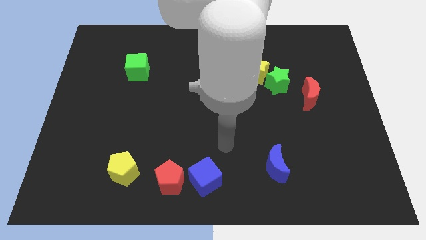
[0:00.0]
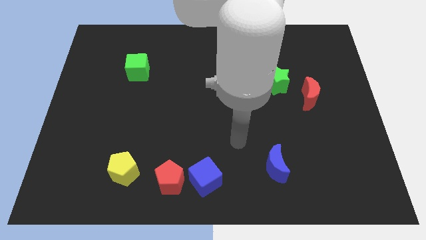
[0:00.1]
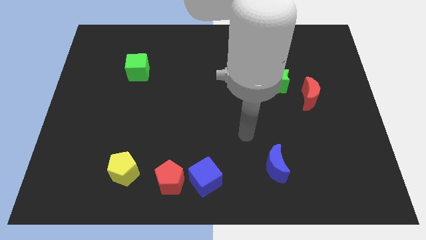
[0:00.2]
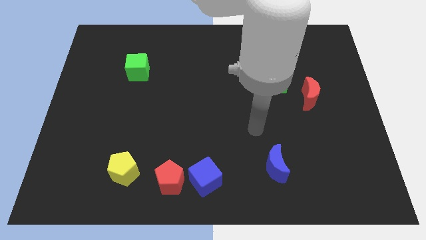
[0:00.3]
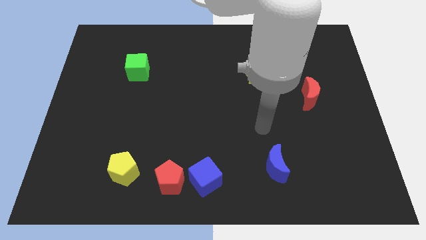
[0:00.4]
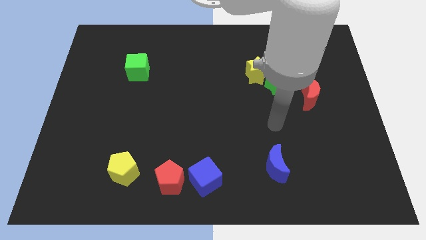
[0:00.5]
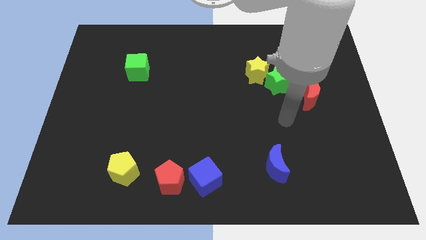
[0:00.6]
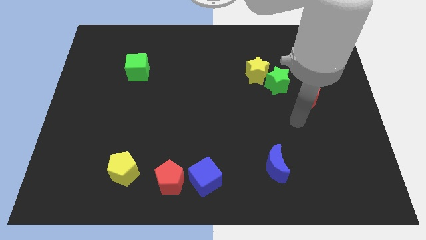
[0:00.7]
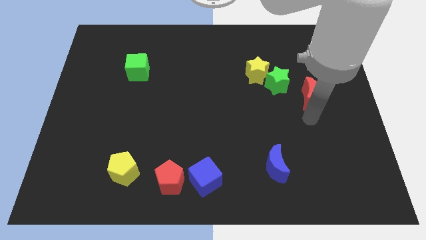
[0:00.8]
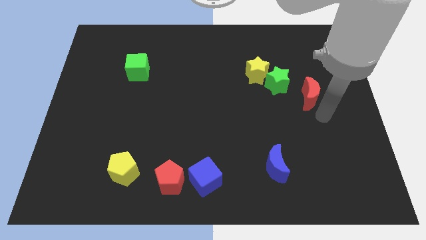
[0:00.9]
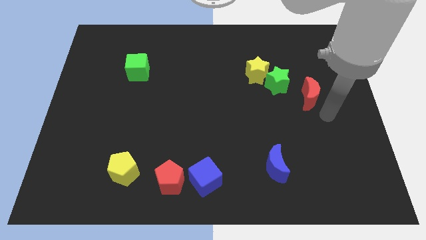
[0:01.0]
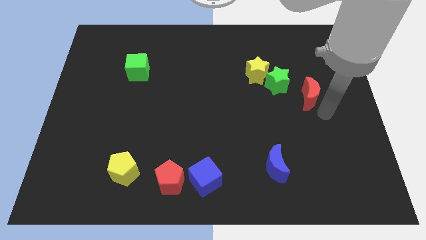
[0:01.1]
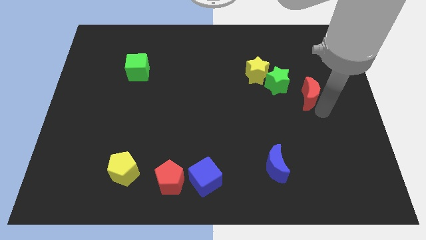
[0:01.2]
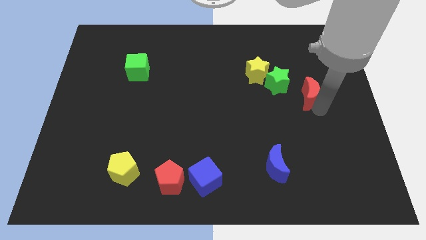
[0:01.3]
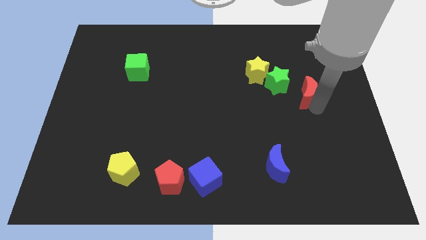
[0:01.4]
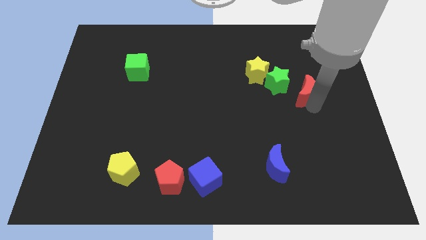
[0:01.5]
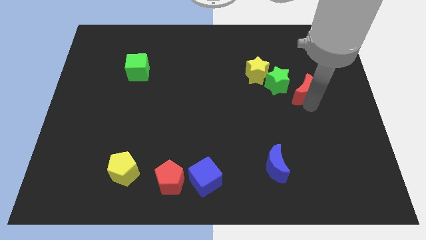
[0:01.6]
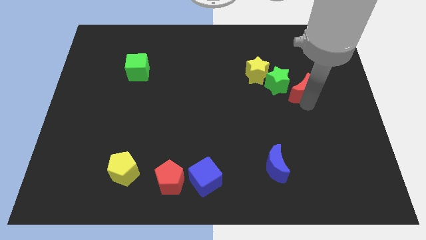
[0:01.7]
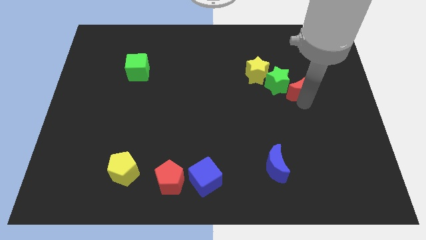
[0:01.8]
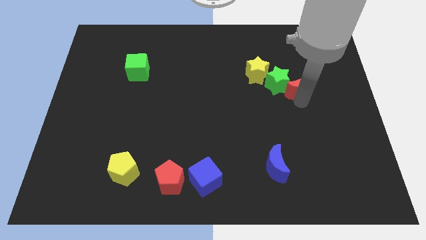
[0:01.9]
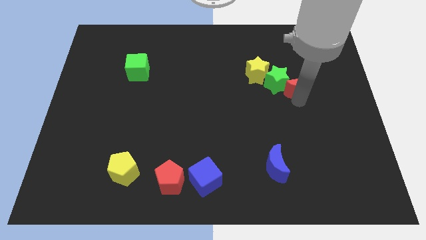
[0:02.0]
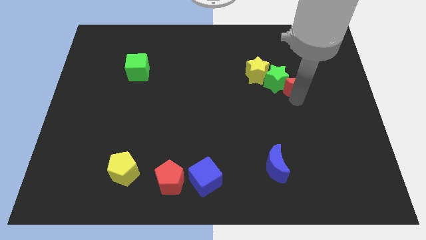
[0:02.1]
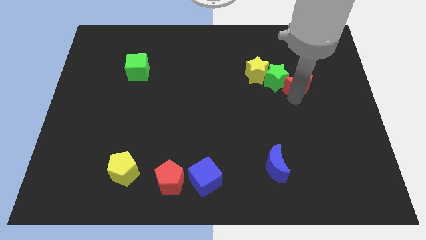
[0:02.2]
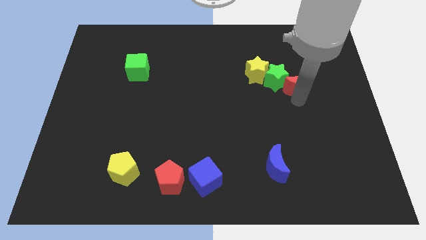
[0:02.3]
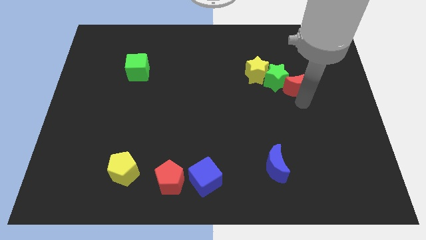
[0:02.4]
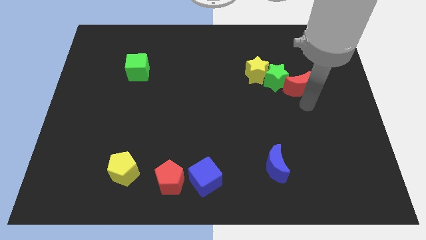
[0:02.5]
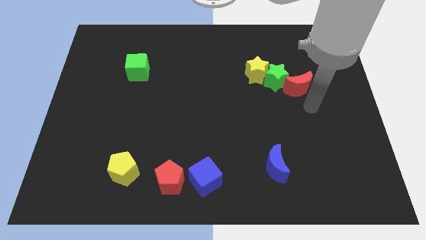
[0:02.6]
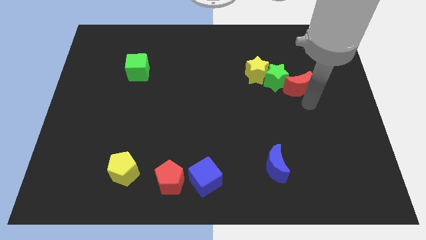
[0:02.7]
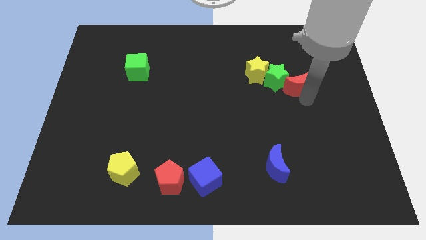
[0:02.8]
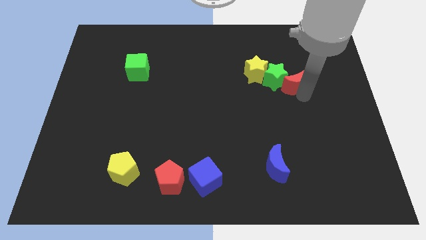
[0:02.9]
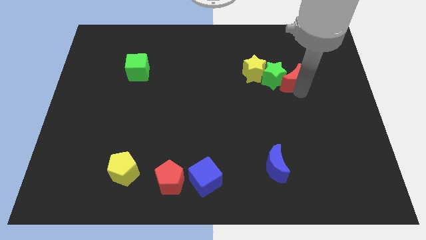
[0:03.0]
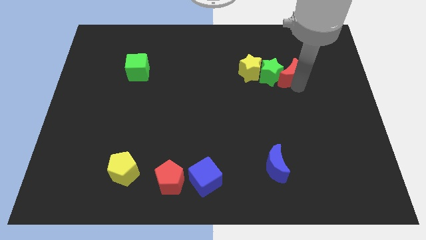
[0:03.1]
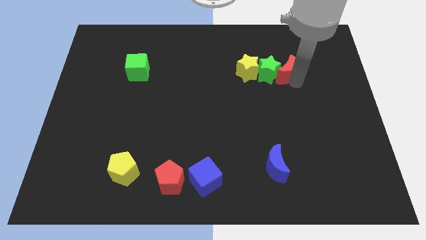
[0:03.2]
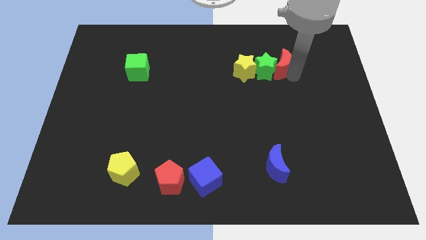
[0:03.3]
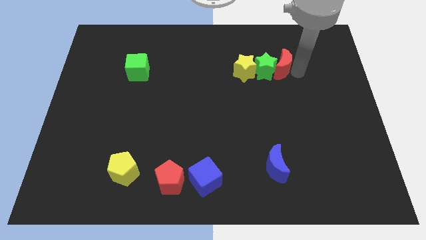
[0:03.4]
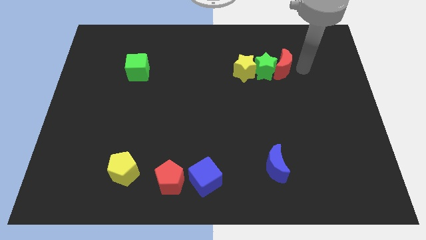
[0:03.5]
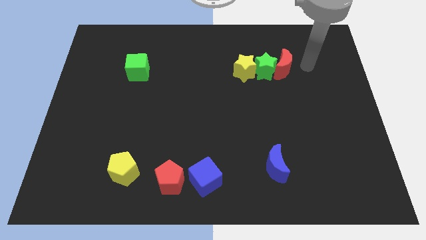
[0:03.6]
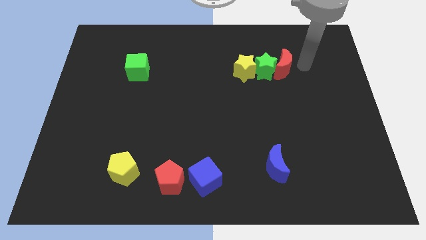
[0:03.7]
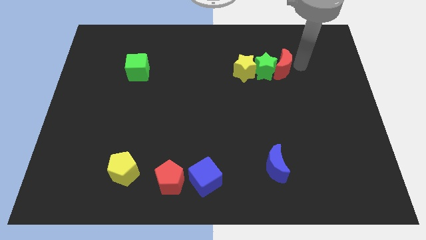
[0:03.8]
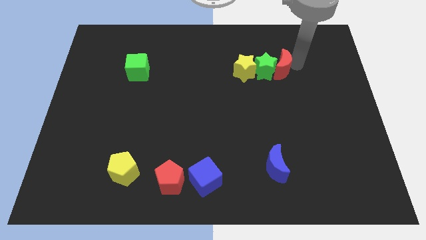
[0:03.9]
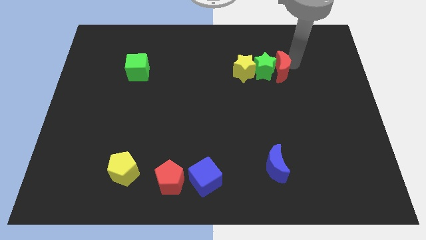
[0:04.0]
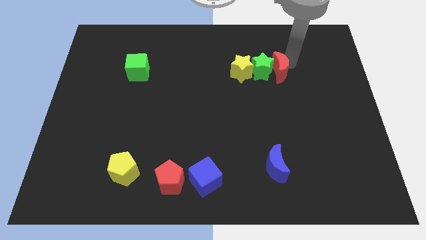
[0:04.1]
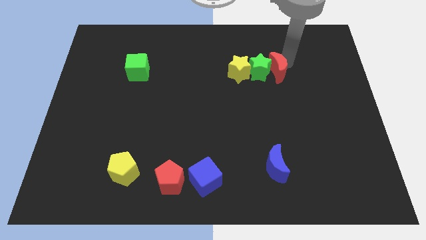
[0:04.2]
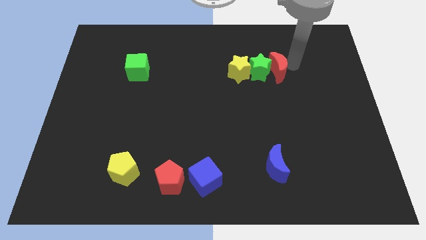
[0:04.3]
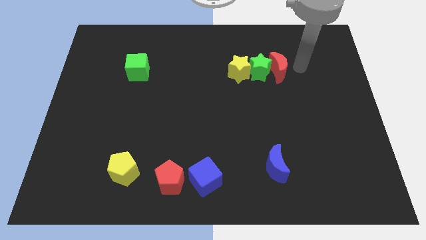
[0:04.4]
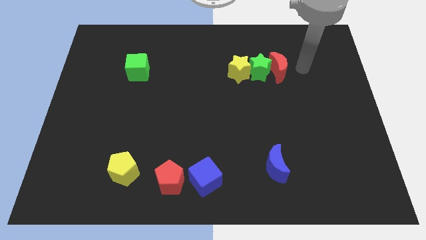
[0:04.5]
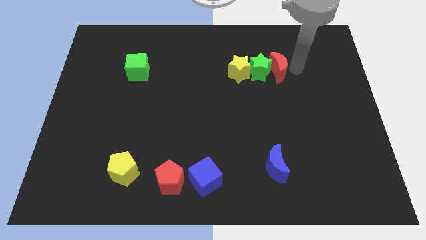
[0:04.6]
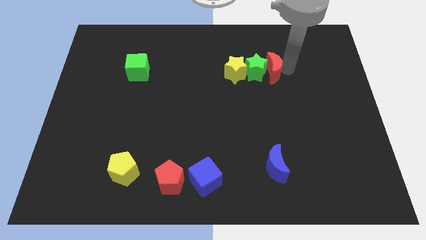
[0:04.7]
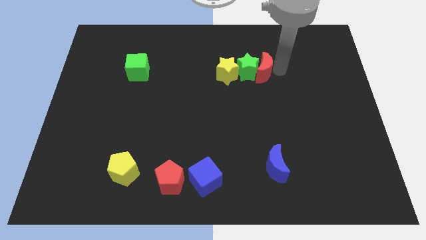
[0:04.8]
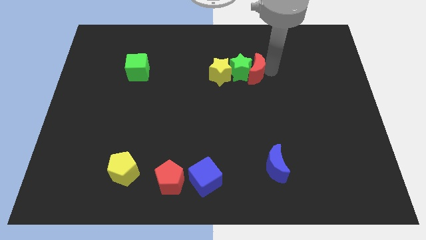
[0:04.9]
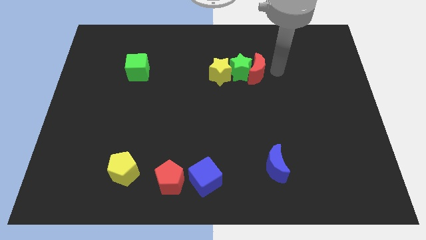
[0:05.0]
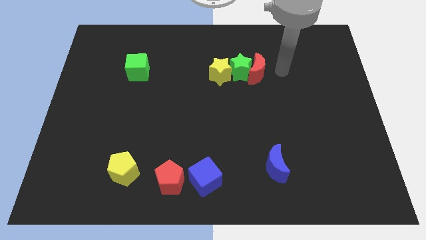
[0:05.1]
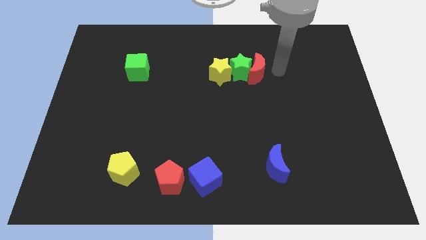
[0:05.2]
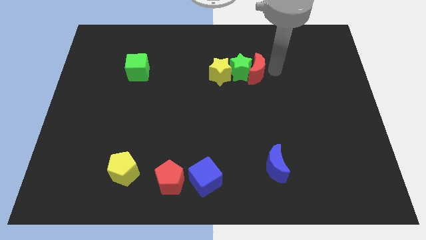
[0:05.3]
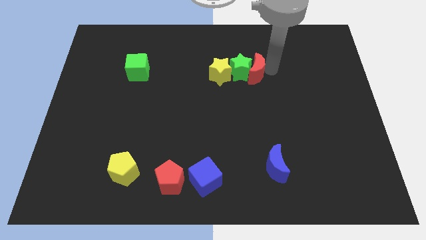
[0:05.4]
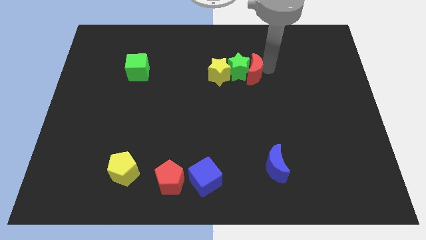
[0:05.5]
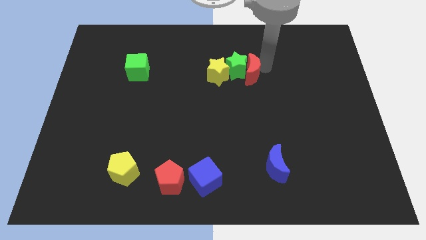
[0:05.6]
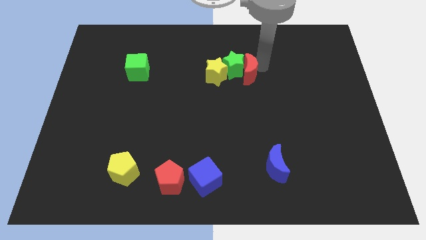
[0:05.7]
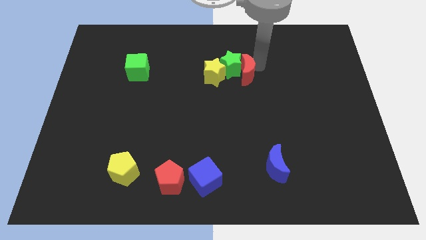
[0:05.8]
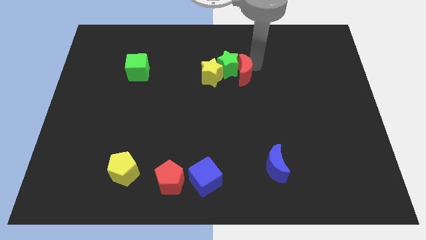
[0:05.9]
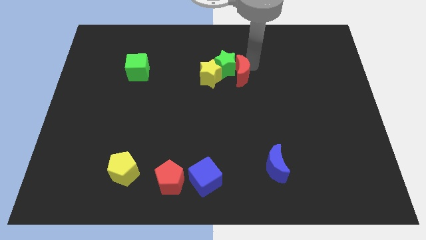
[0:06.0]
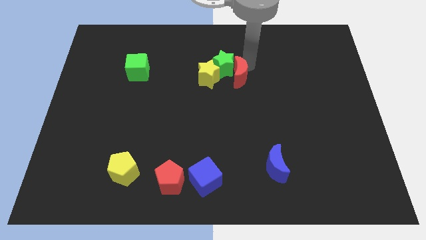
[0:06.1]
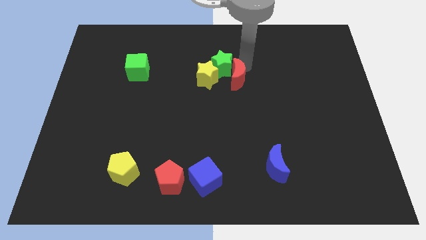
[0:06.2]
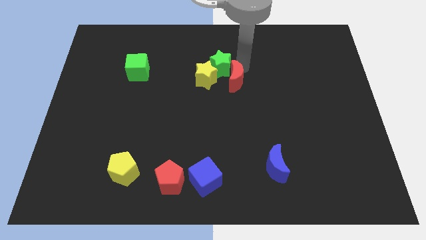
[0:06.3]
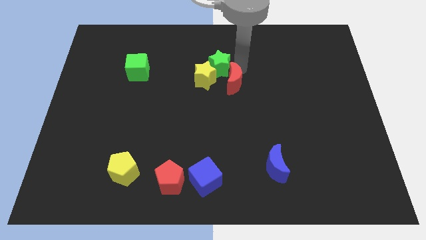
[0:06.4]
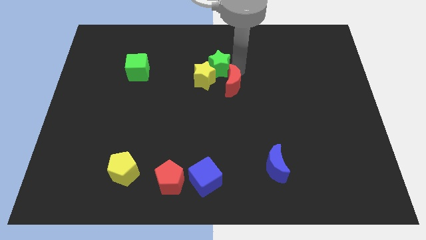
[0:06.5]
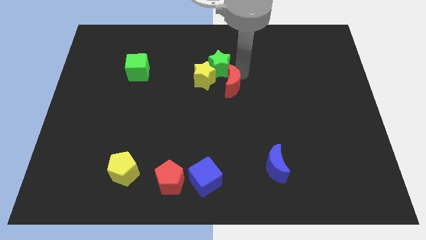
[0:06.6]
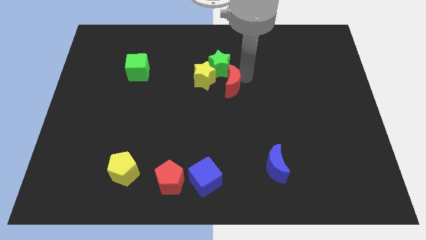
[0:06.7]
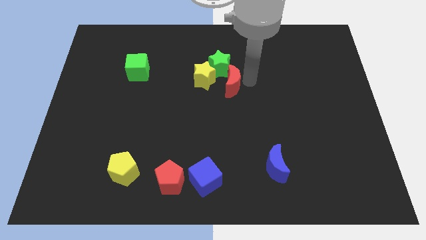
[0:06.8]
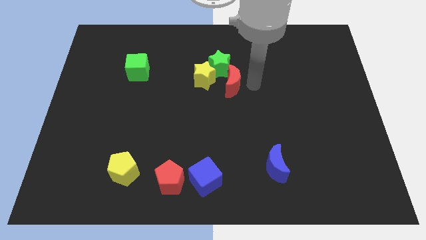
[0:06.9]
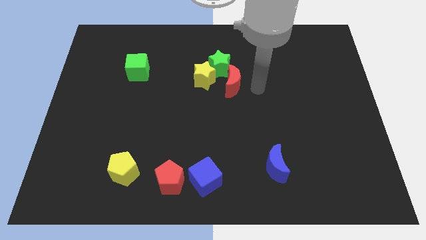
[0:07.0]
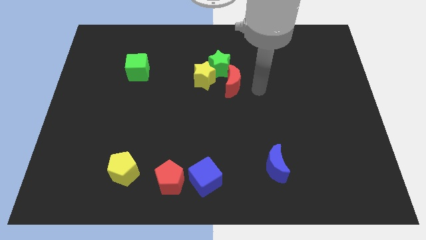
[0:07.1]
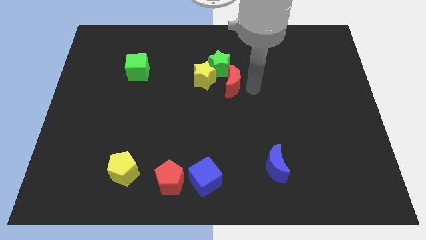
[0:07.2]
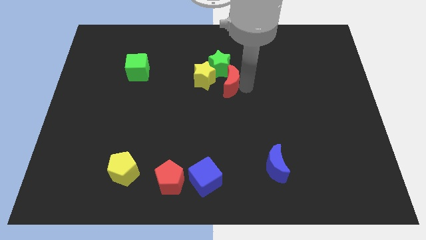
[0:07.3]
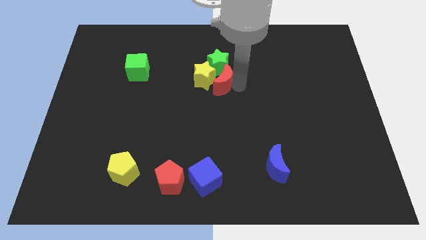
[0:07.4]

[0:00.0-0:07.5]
slide the red moon next to the yellow star
